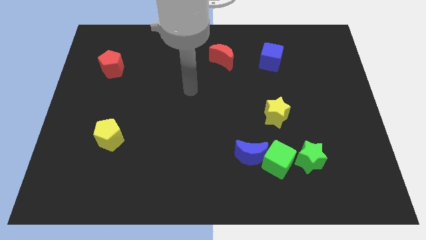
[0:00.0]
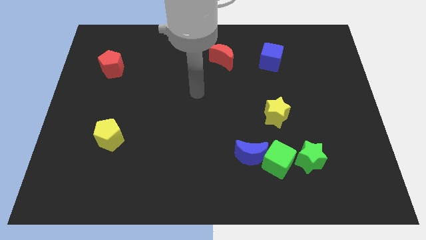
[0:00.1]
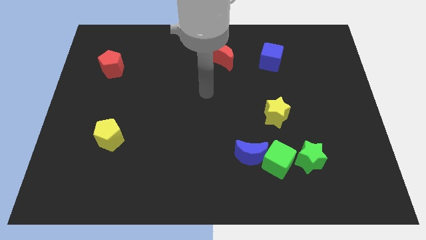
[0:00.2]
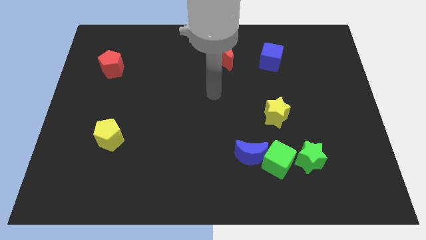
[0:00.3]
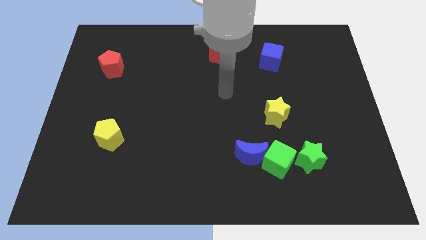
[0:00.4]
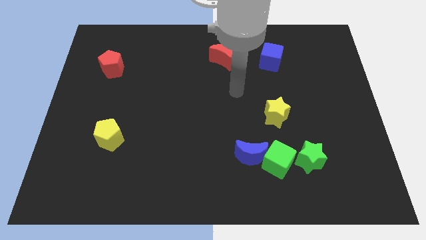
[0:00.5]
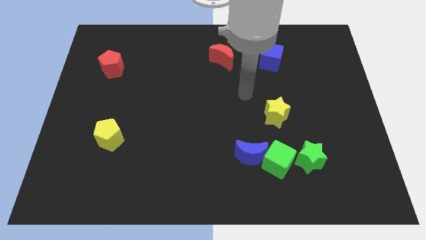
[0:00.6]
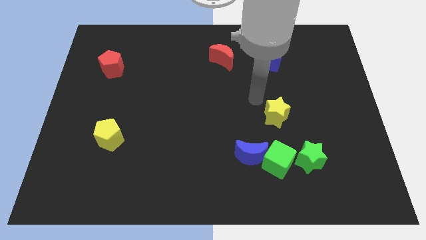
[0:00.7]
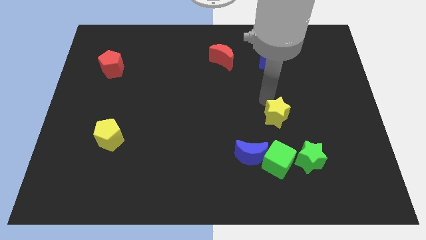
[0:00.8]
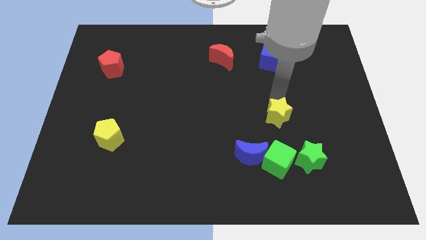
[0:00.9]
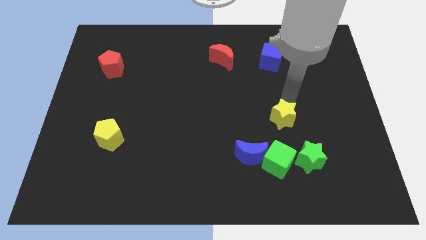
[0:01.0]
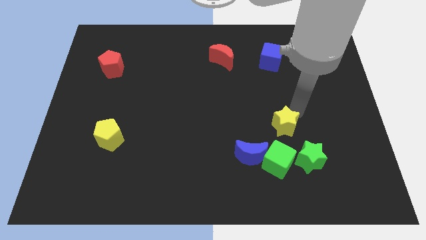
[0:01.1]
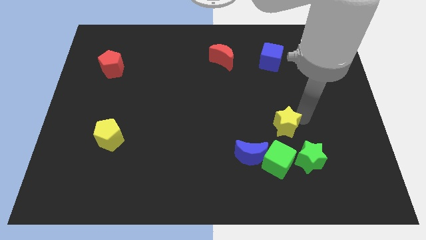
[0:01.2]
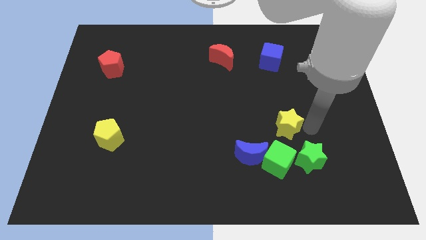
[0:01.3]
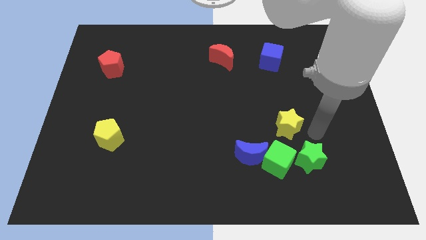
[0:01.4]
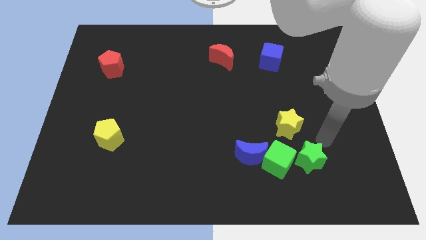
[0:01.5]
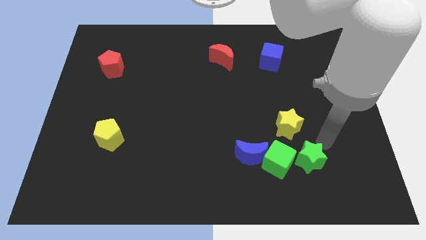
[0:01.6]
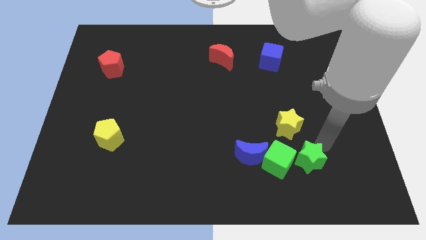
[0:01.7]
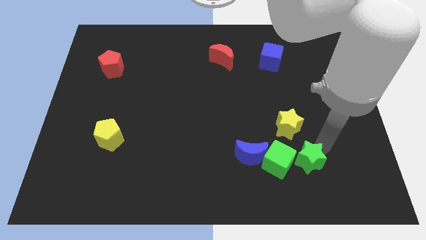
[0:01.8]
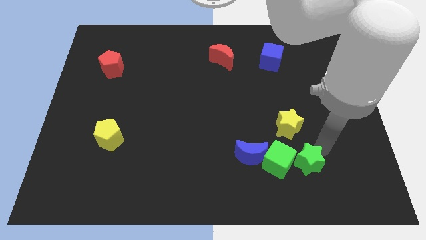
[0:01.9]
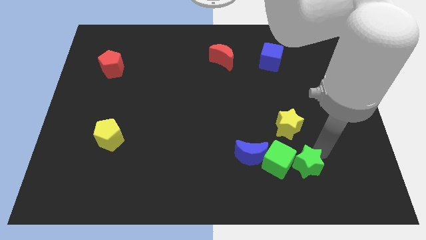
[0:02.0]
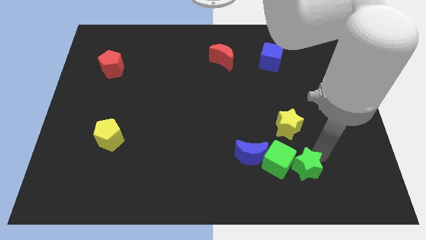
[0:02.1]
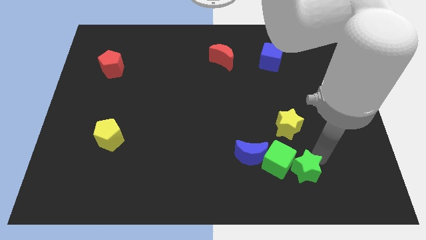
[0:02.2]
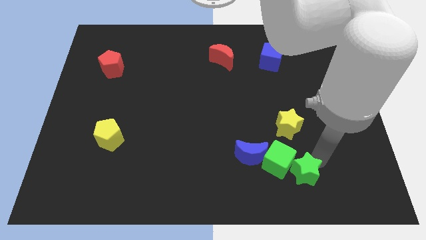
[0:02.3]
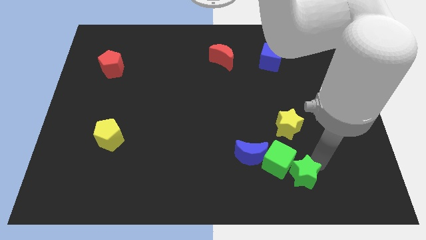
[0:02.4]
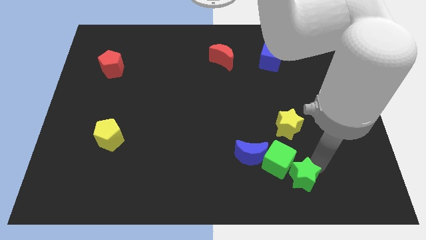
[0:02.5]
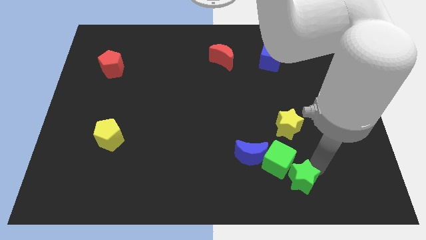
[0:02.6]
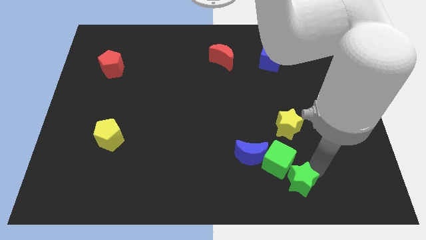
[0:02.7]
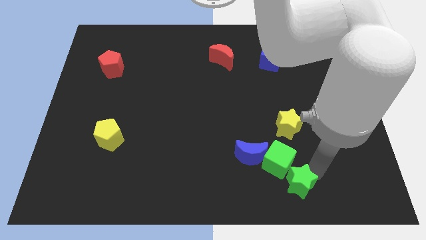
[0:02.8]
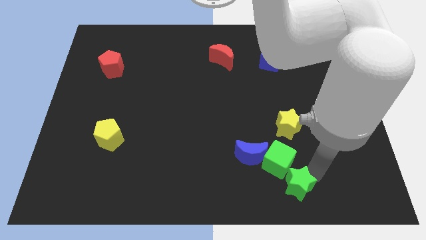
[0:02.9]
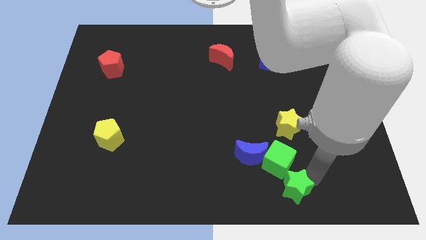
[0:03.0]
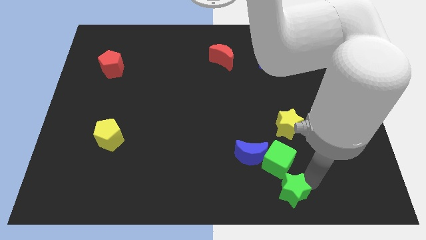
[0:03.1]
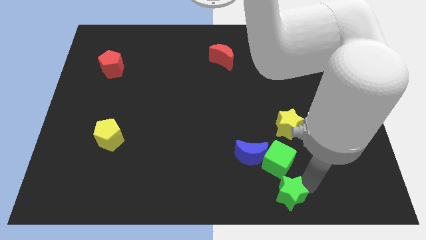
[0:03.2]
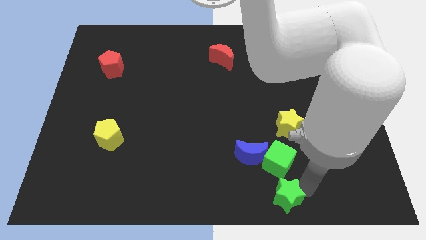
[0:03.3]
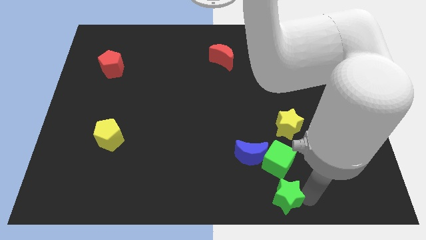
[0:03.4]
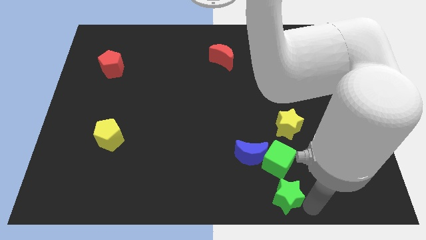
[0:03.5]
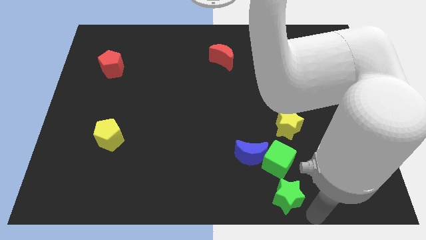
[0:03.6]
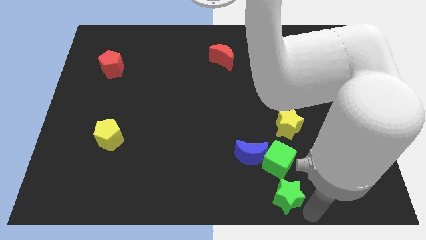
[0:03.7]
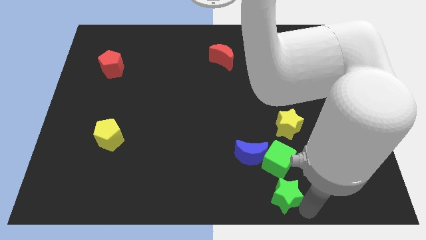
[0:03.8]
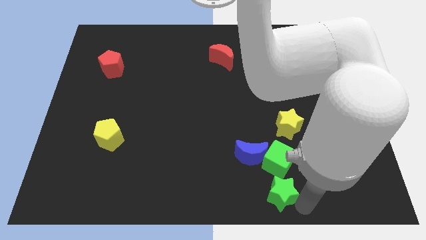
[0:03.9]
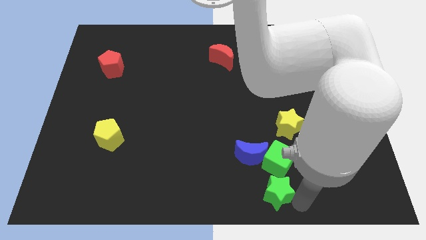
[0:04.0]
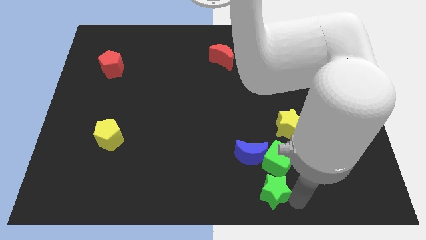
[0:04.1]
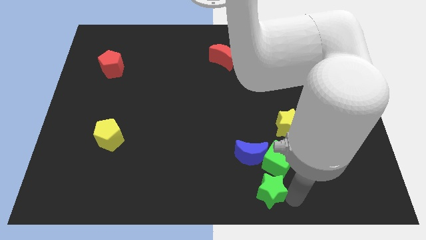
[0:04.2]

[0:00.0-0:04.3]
slide the green star a bit left

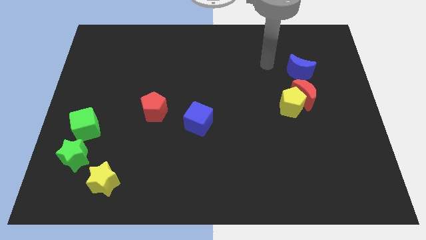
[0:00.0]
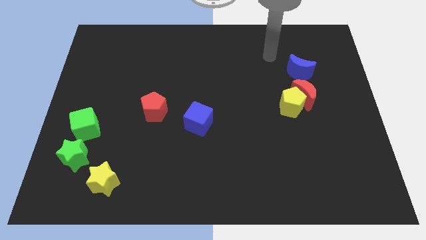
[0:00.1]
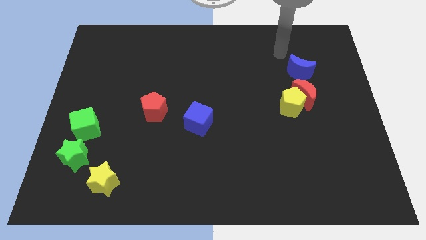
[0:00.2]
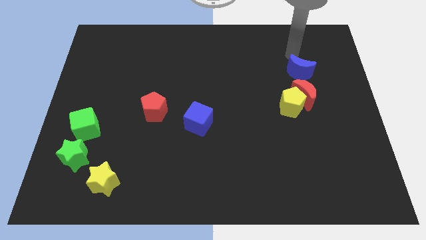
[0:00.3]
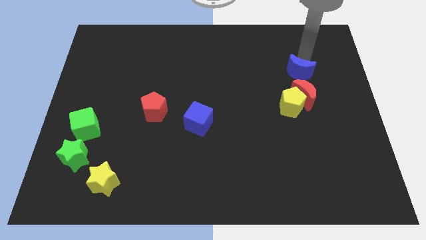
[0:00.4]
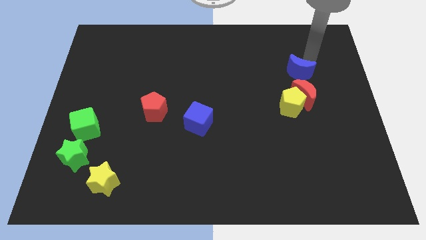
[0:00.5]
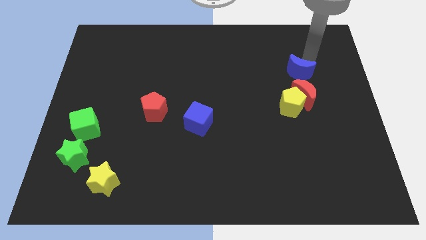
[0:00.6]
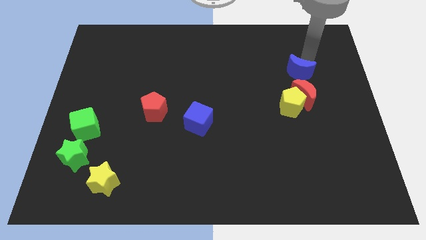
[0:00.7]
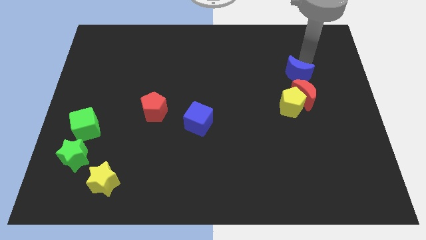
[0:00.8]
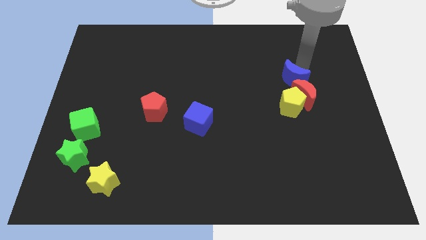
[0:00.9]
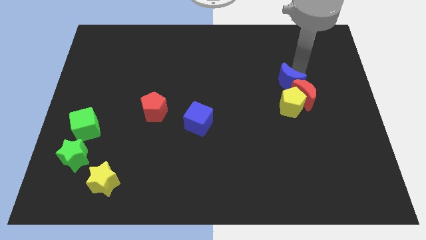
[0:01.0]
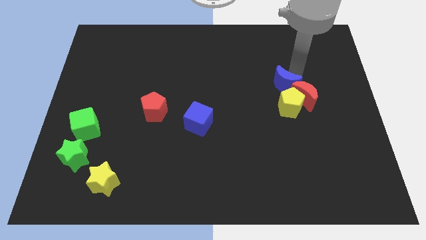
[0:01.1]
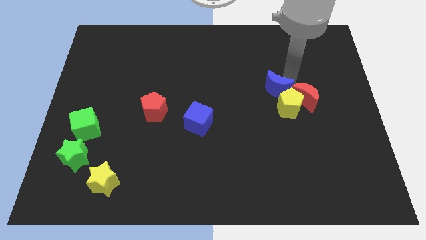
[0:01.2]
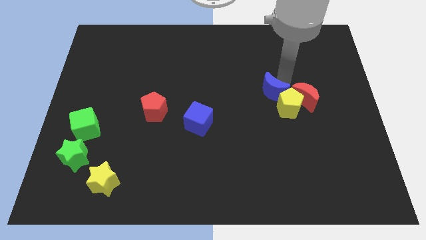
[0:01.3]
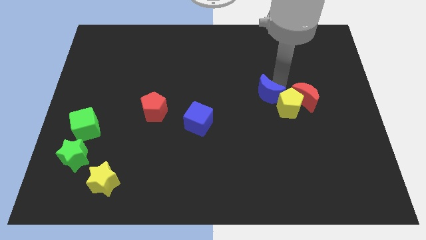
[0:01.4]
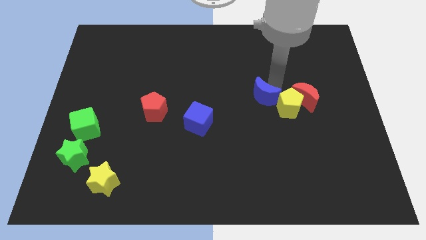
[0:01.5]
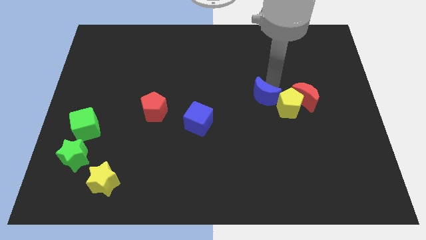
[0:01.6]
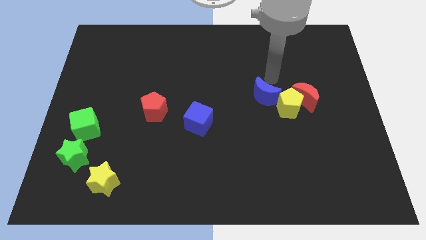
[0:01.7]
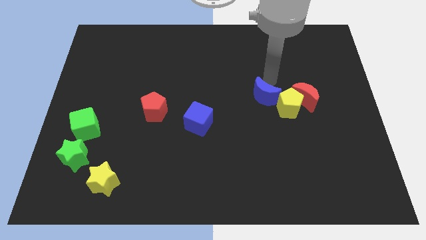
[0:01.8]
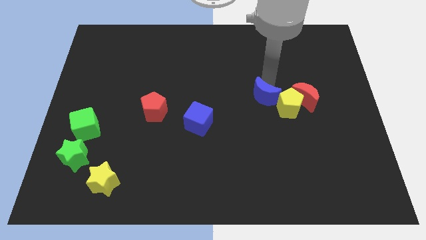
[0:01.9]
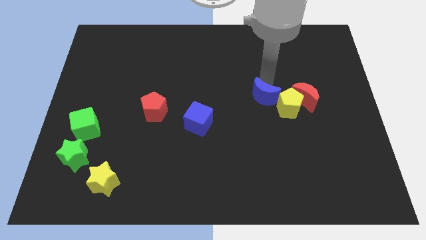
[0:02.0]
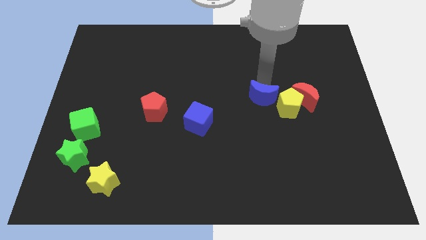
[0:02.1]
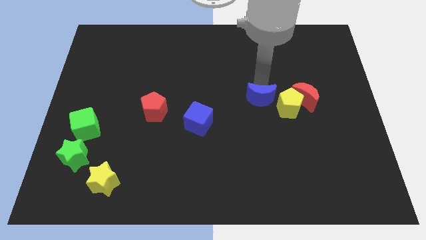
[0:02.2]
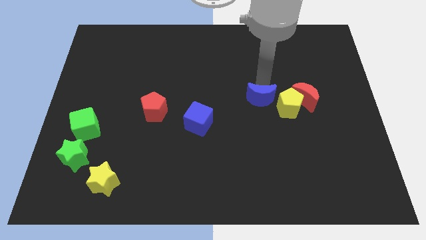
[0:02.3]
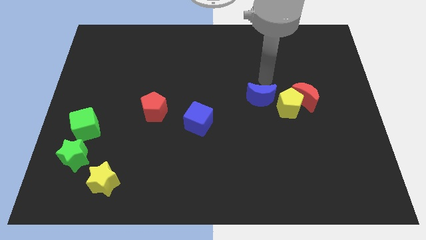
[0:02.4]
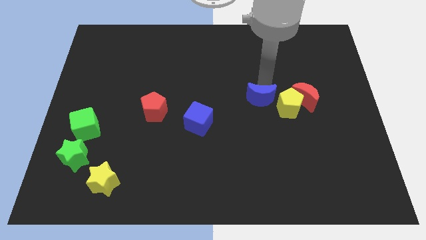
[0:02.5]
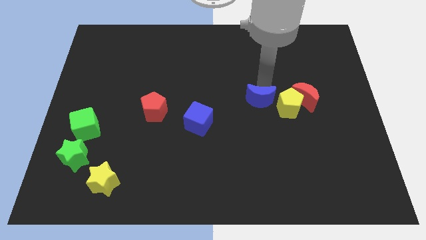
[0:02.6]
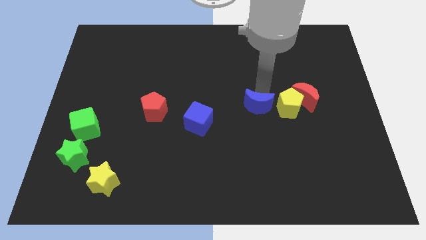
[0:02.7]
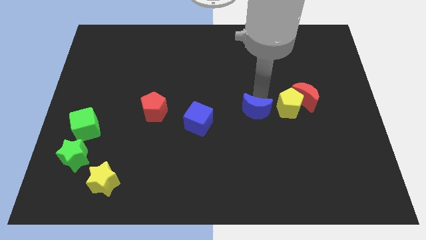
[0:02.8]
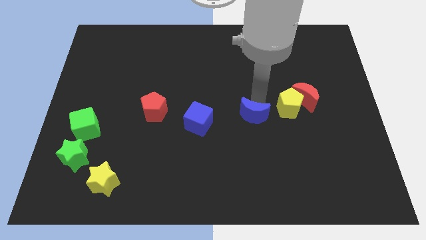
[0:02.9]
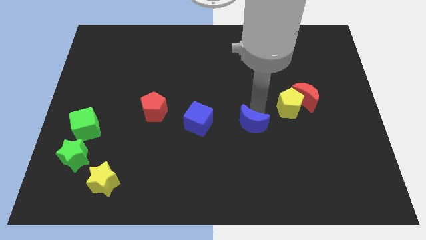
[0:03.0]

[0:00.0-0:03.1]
move the blue moon downwards and to the left diagonally

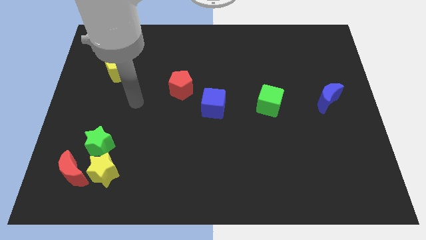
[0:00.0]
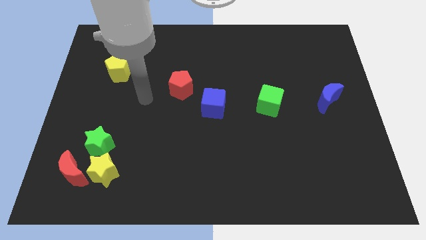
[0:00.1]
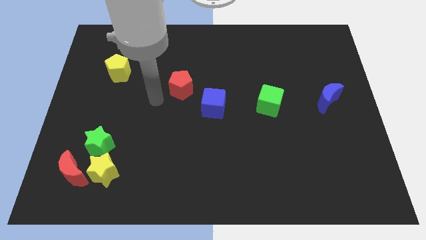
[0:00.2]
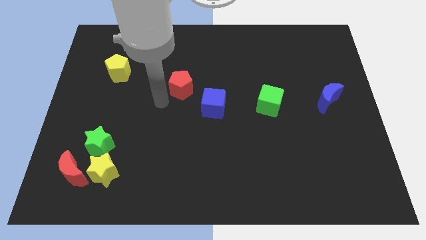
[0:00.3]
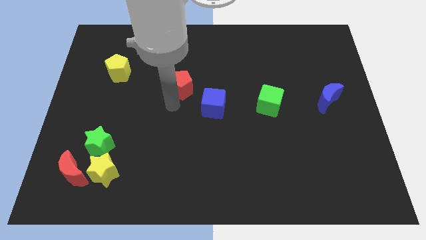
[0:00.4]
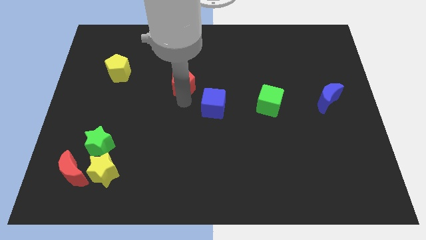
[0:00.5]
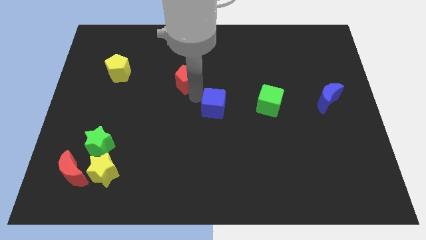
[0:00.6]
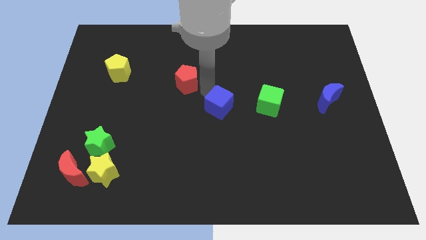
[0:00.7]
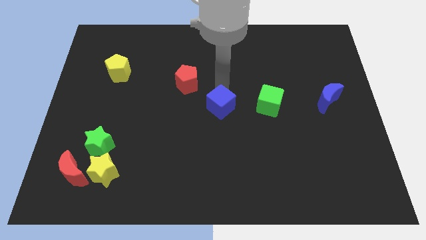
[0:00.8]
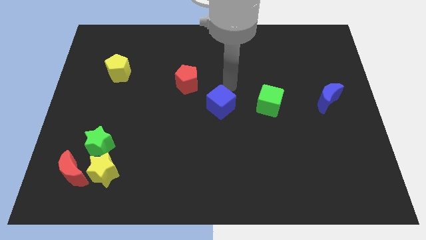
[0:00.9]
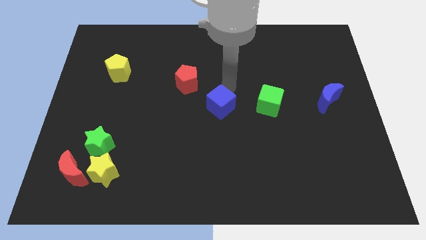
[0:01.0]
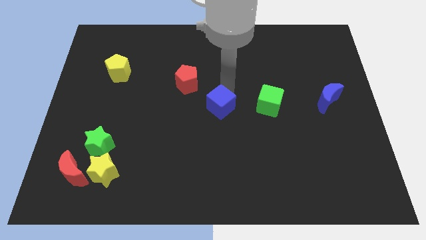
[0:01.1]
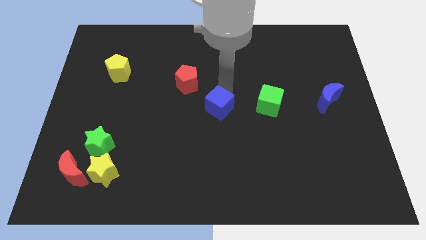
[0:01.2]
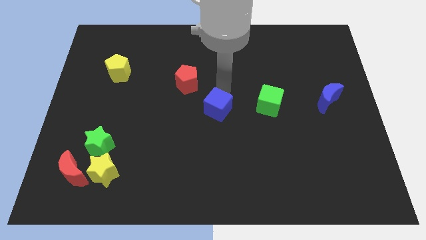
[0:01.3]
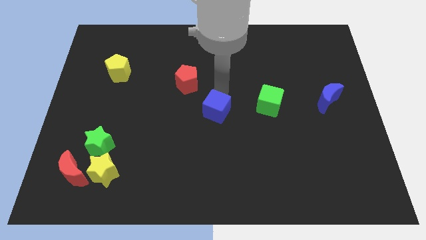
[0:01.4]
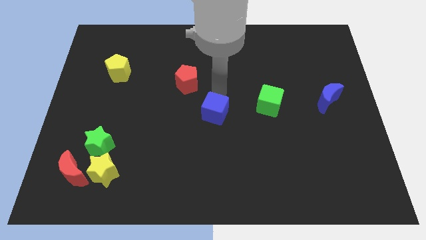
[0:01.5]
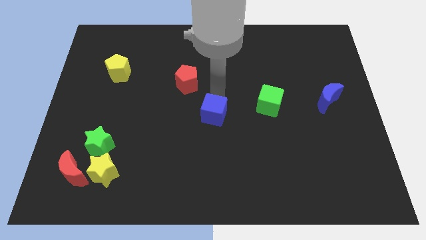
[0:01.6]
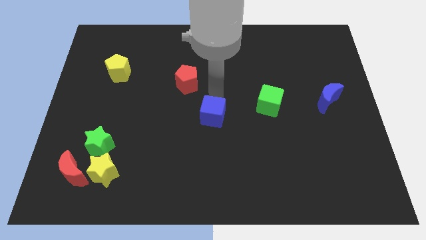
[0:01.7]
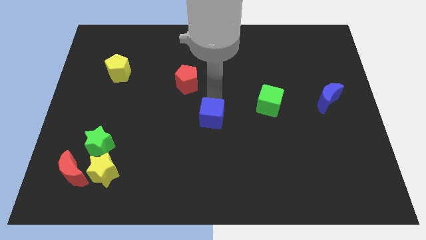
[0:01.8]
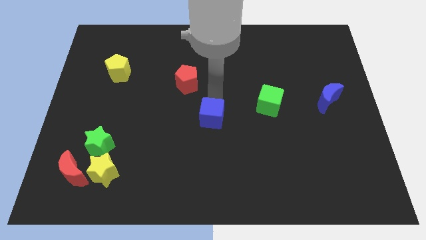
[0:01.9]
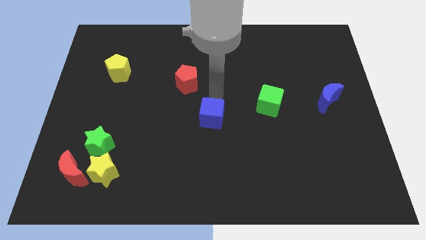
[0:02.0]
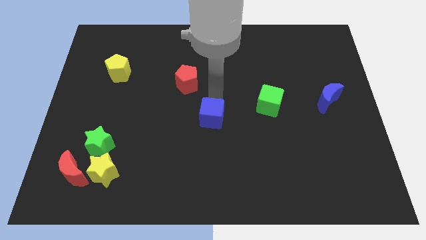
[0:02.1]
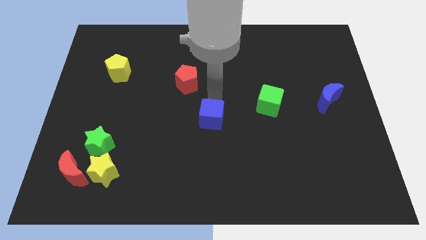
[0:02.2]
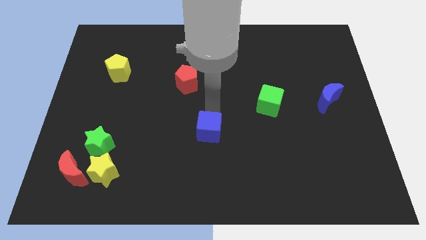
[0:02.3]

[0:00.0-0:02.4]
slide the blue cube down a bit
